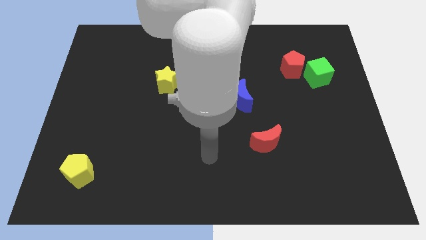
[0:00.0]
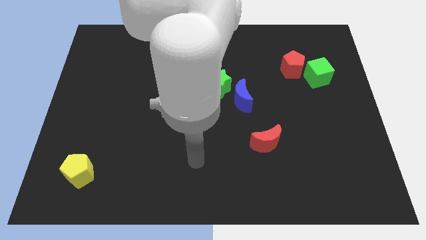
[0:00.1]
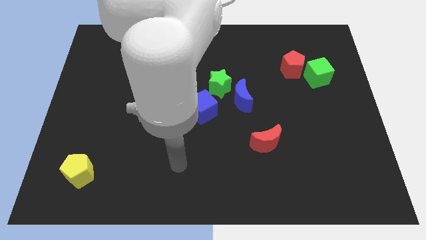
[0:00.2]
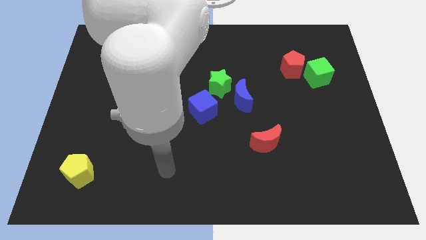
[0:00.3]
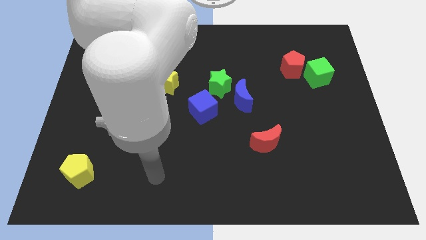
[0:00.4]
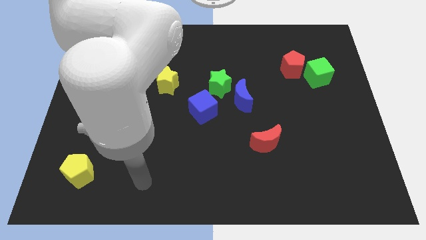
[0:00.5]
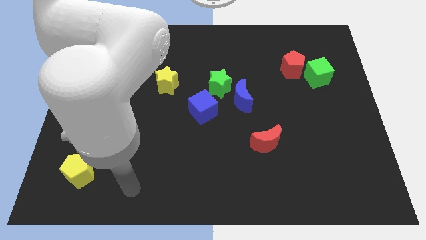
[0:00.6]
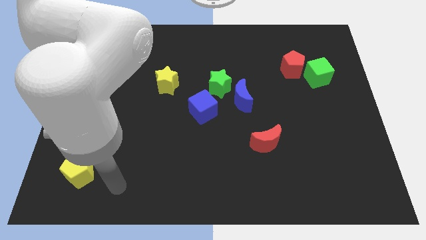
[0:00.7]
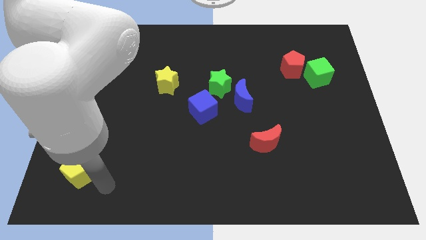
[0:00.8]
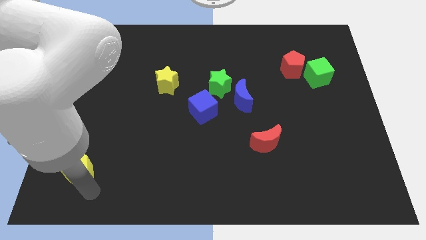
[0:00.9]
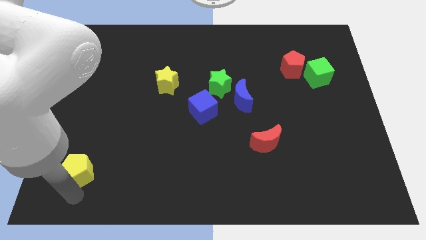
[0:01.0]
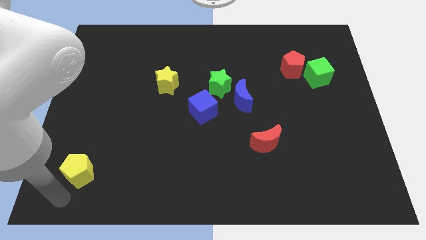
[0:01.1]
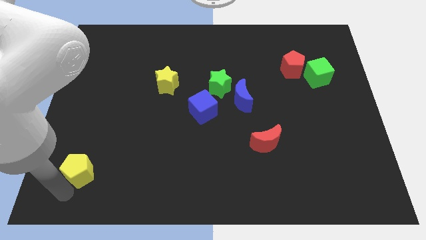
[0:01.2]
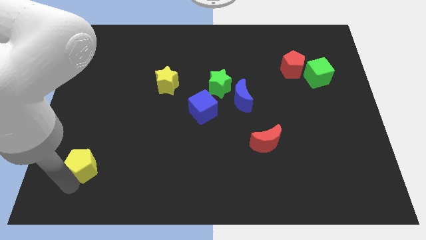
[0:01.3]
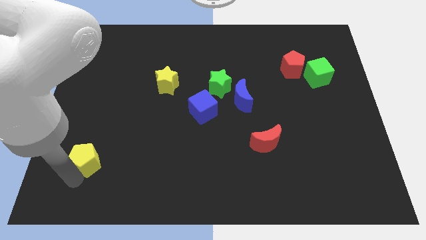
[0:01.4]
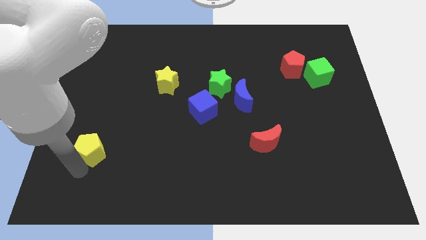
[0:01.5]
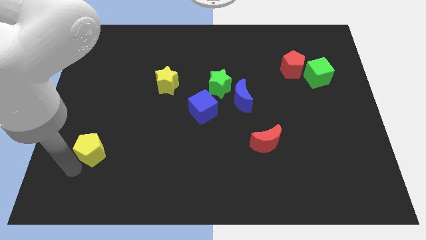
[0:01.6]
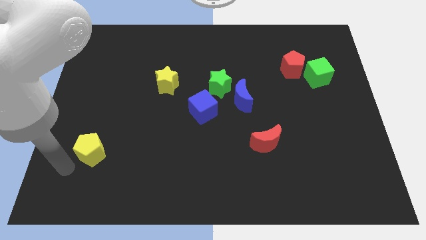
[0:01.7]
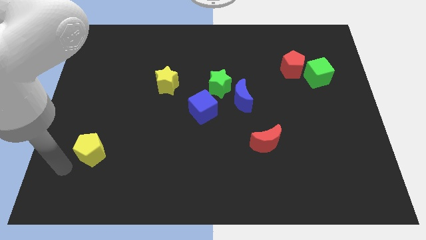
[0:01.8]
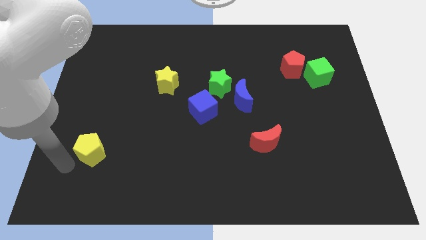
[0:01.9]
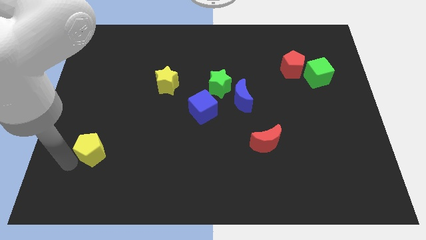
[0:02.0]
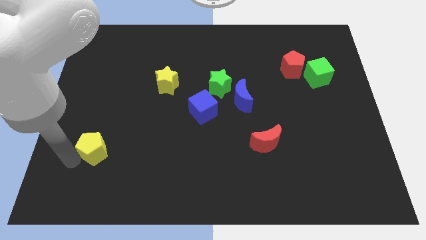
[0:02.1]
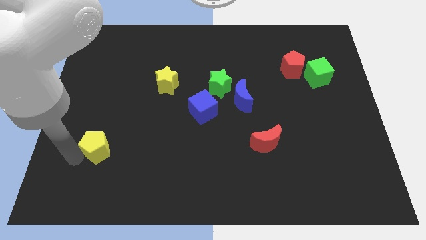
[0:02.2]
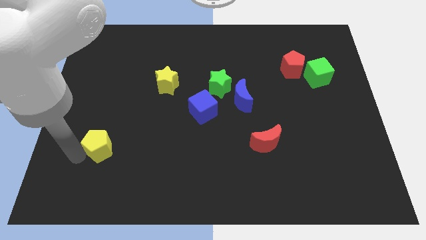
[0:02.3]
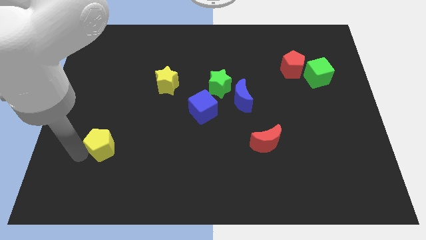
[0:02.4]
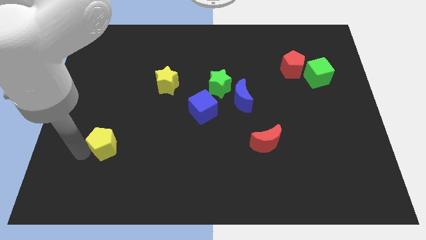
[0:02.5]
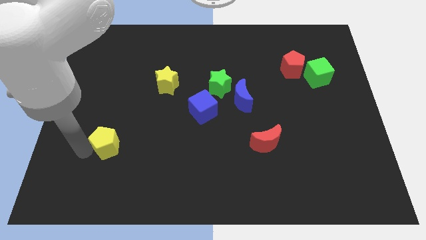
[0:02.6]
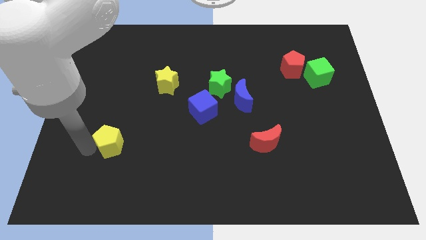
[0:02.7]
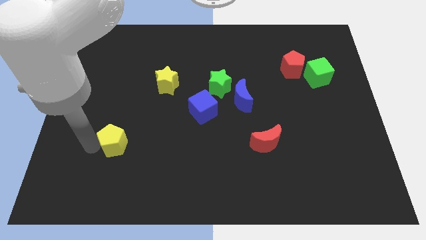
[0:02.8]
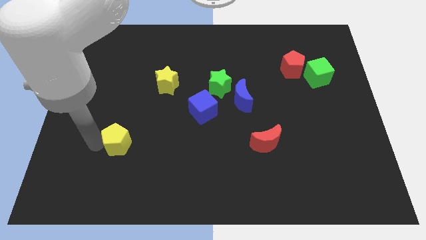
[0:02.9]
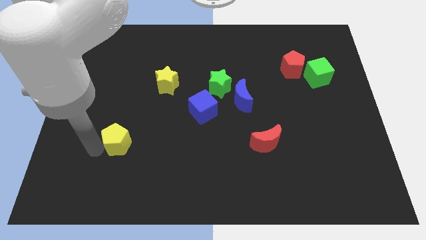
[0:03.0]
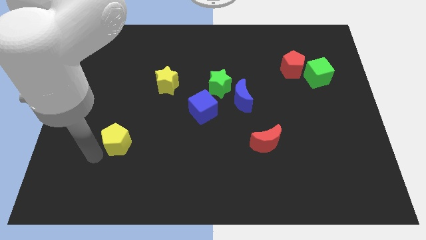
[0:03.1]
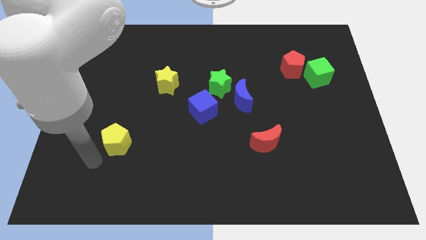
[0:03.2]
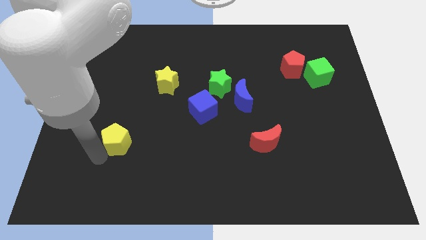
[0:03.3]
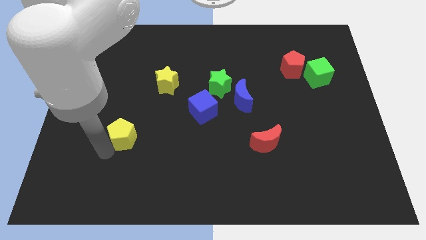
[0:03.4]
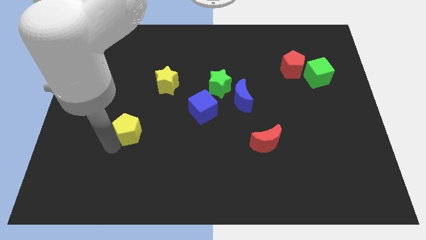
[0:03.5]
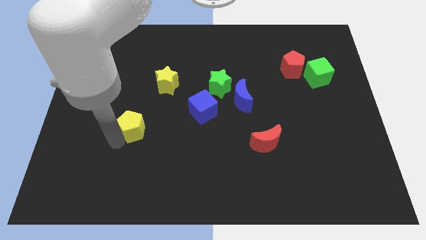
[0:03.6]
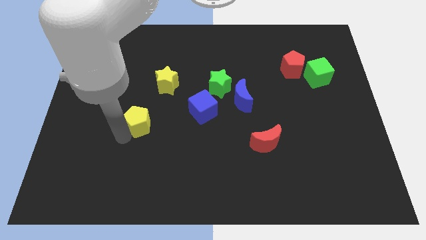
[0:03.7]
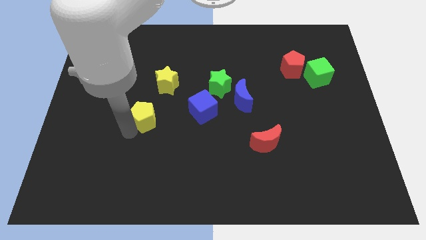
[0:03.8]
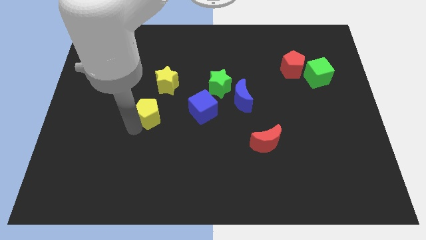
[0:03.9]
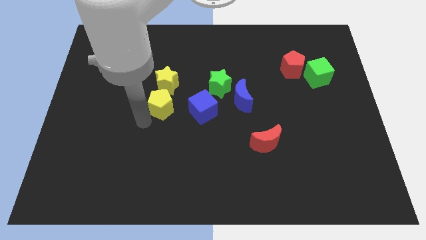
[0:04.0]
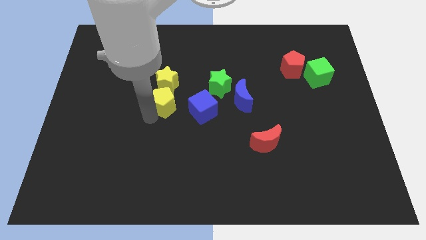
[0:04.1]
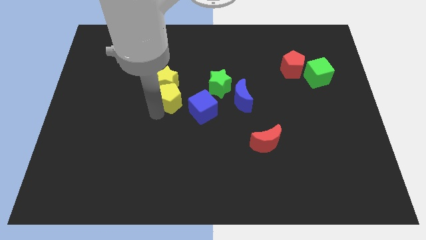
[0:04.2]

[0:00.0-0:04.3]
put the yellow pentagon towards the yellow star

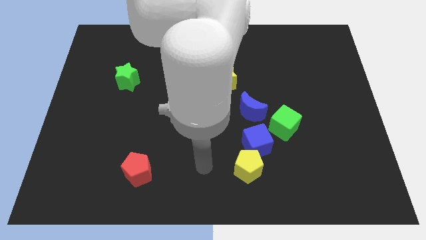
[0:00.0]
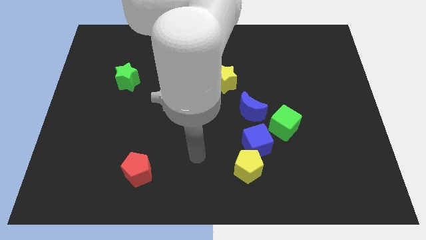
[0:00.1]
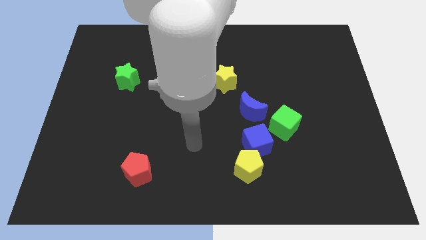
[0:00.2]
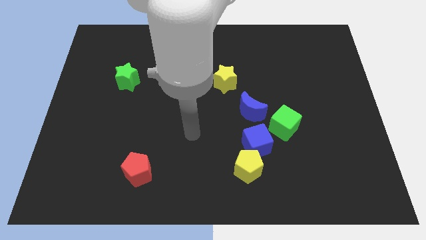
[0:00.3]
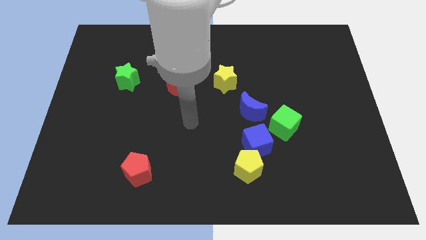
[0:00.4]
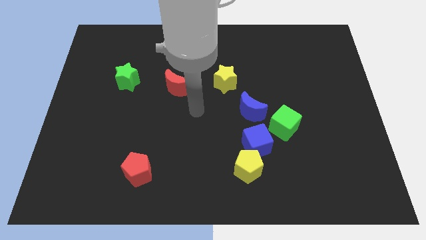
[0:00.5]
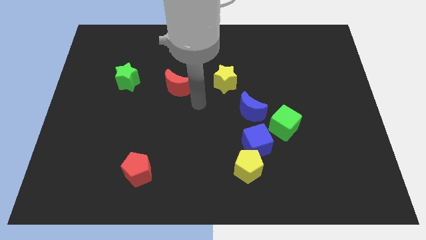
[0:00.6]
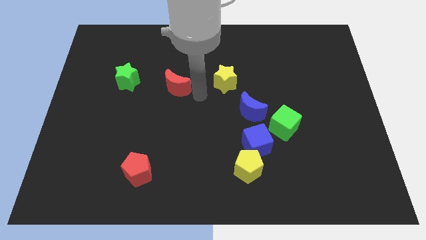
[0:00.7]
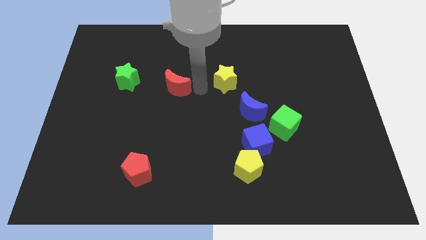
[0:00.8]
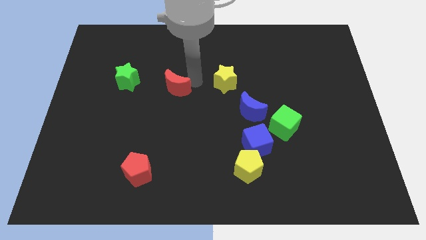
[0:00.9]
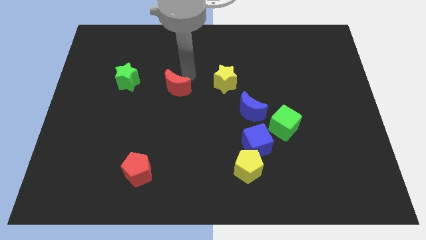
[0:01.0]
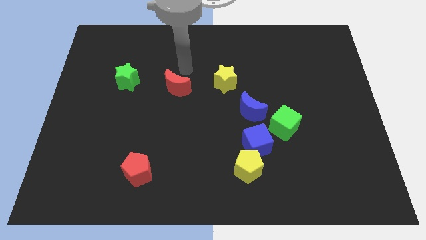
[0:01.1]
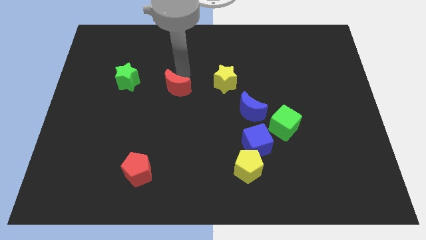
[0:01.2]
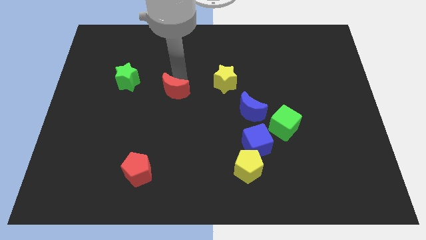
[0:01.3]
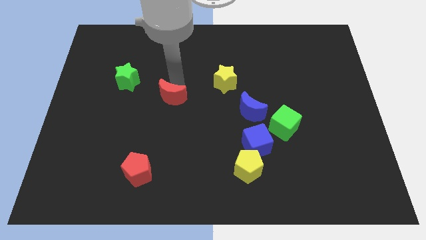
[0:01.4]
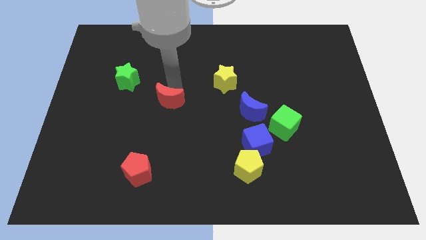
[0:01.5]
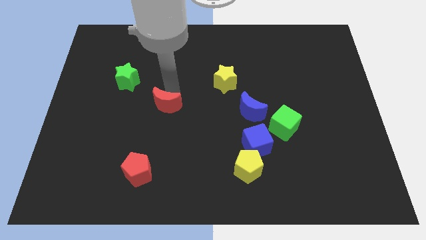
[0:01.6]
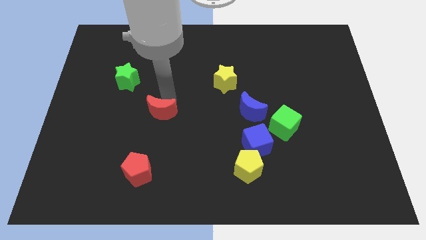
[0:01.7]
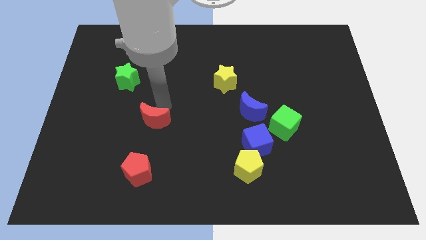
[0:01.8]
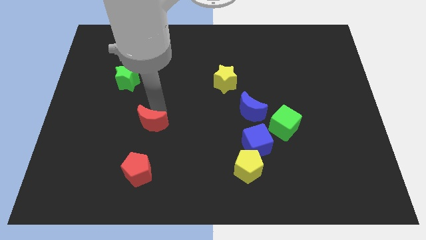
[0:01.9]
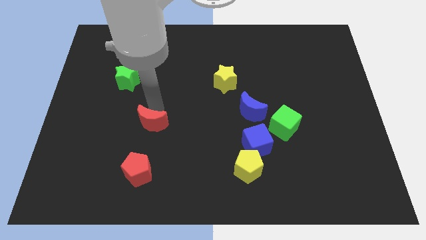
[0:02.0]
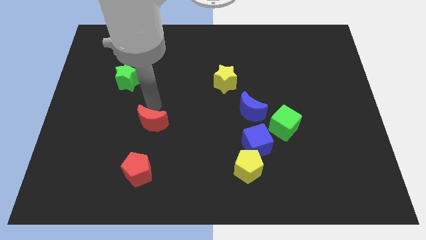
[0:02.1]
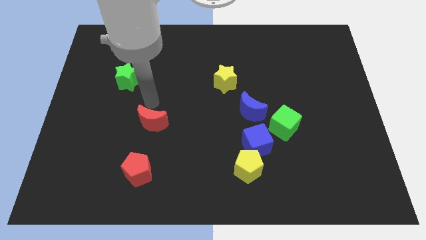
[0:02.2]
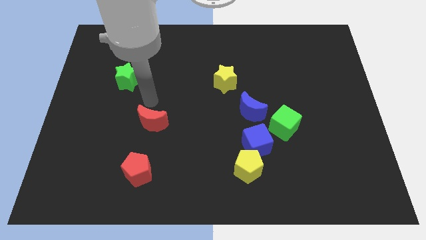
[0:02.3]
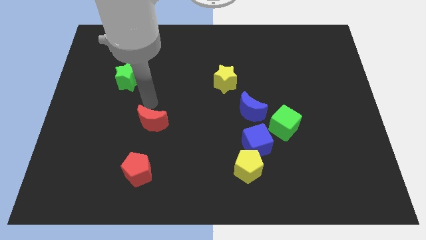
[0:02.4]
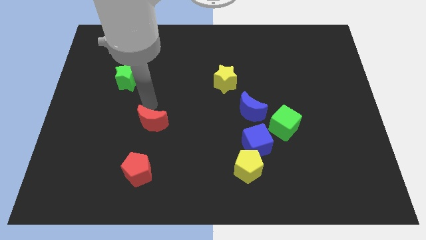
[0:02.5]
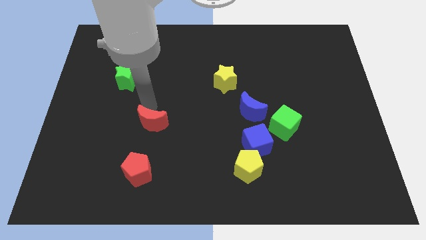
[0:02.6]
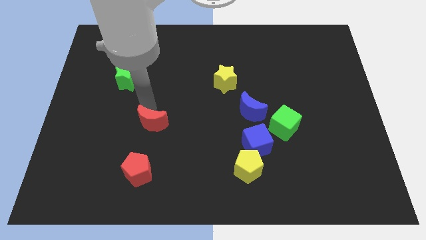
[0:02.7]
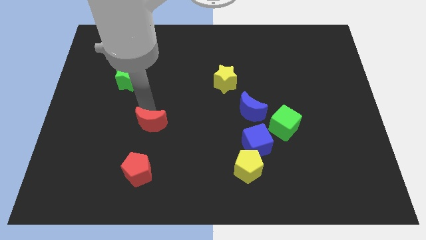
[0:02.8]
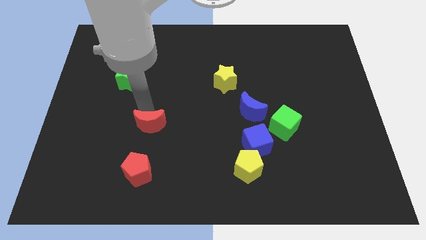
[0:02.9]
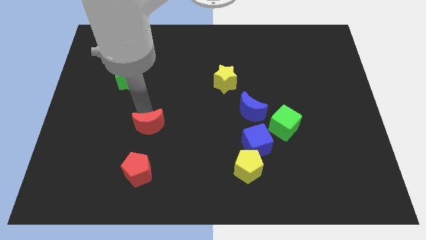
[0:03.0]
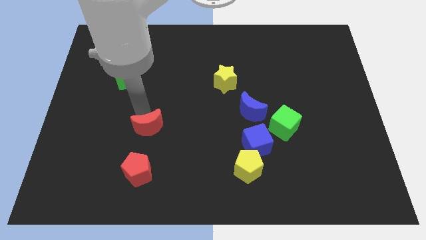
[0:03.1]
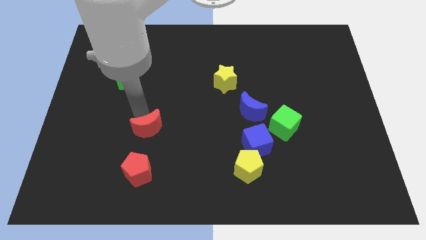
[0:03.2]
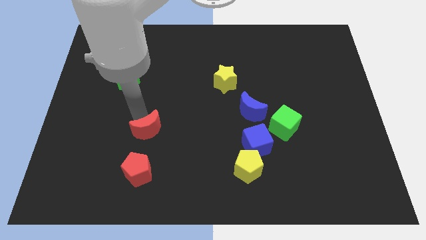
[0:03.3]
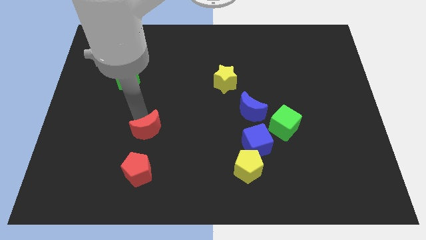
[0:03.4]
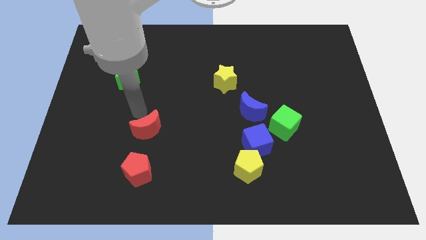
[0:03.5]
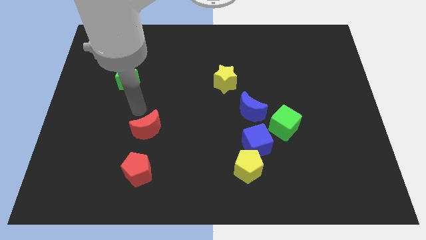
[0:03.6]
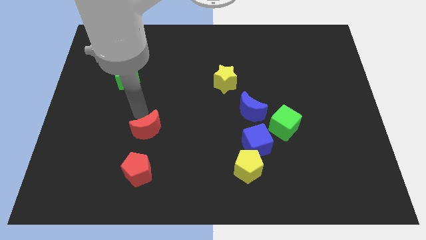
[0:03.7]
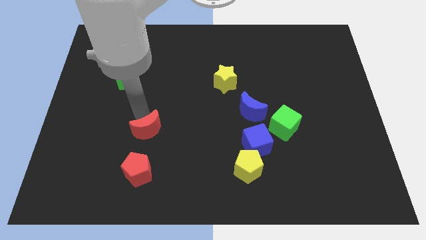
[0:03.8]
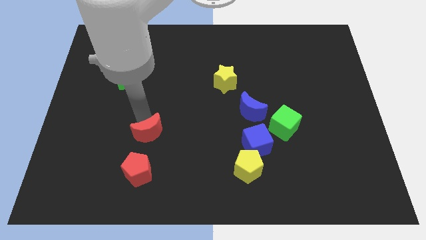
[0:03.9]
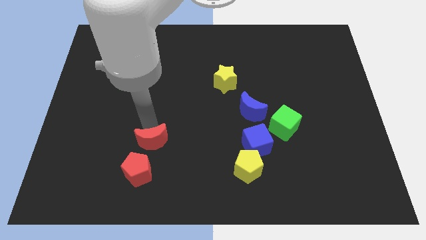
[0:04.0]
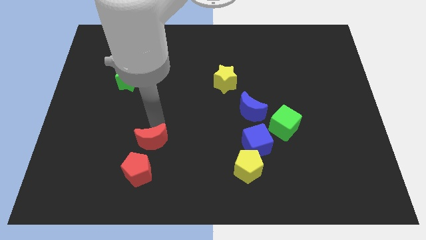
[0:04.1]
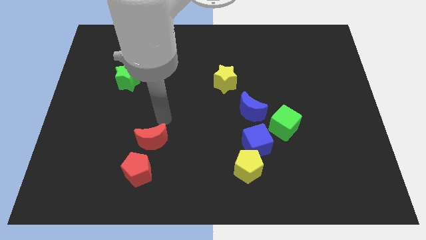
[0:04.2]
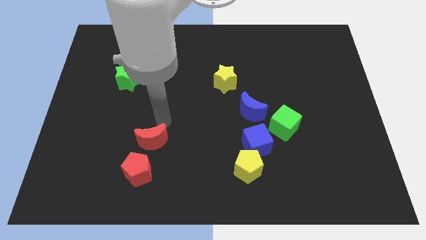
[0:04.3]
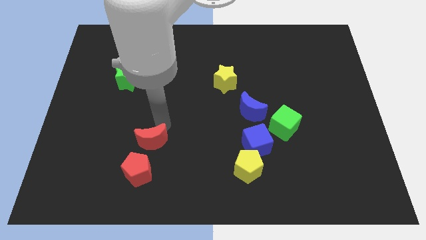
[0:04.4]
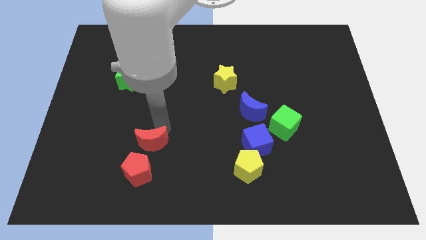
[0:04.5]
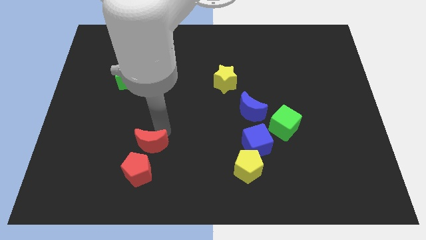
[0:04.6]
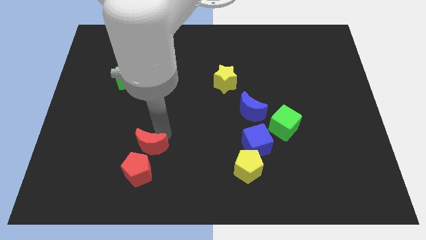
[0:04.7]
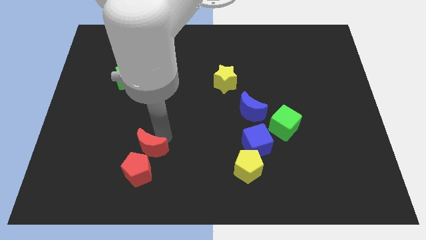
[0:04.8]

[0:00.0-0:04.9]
put the red moon to the red pentagon
